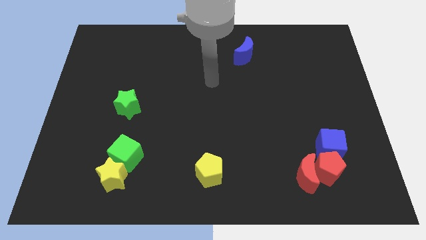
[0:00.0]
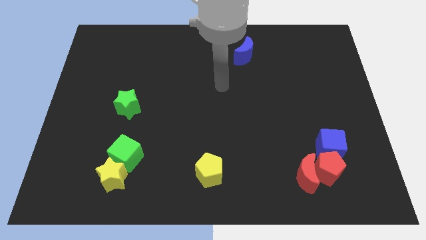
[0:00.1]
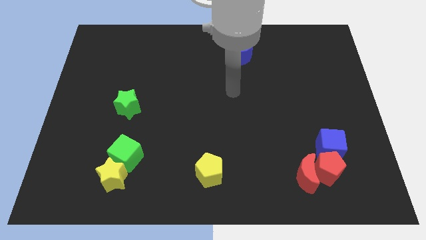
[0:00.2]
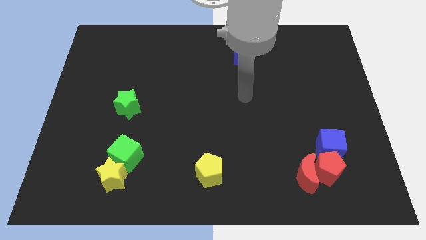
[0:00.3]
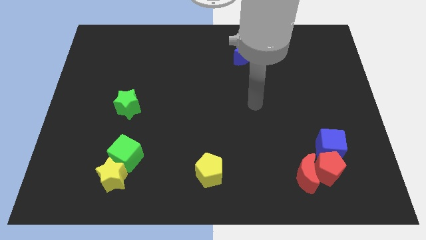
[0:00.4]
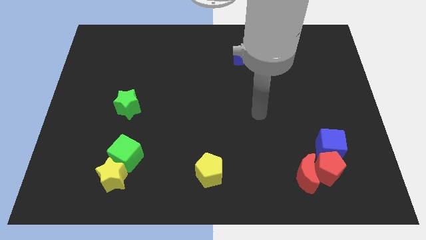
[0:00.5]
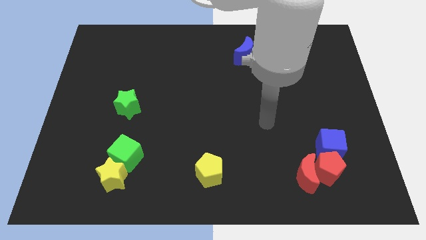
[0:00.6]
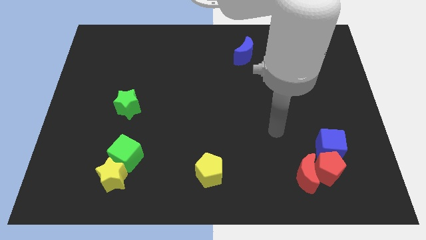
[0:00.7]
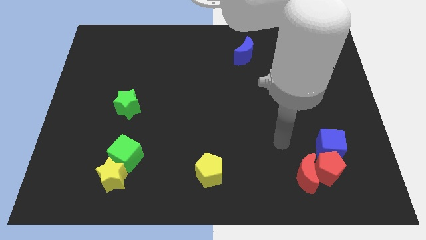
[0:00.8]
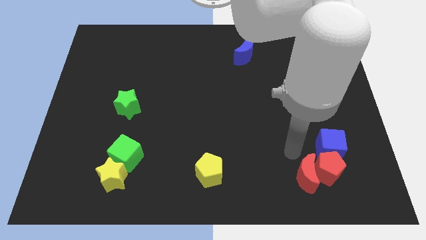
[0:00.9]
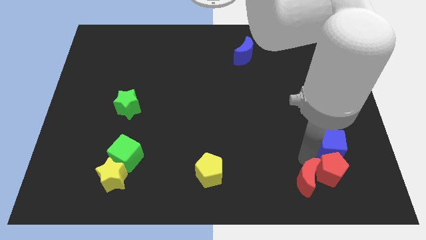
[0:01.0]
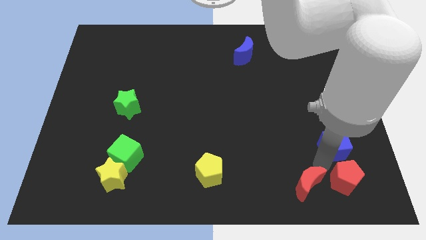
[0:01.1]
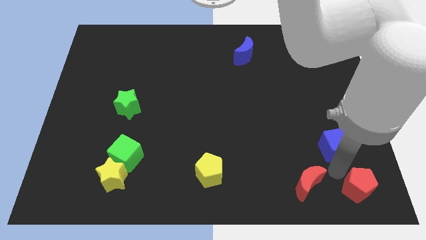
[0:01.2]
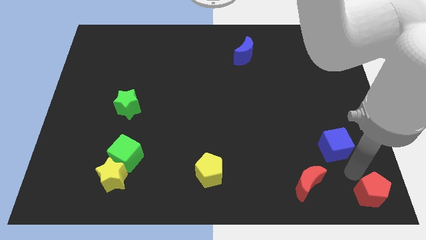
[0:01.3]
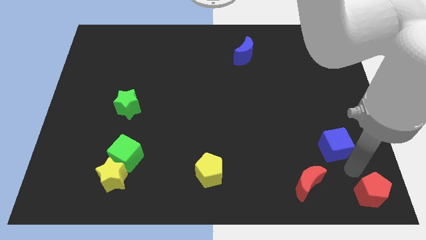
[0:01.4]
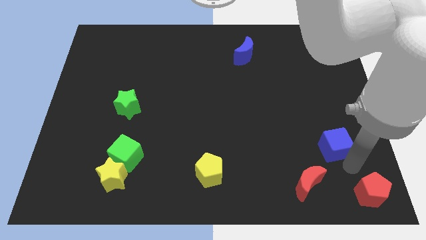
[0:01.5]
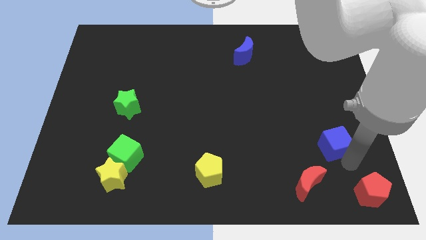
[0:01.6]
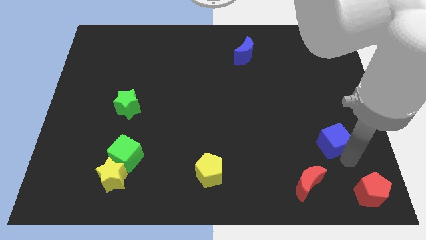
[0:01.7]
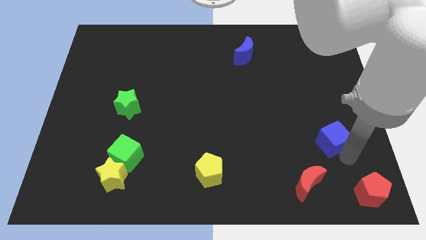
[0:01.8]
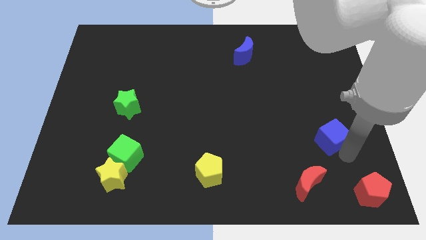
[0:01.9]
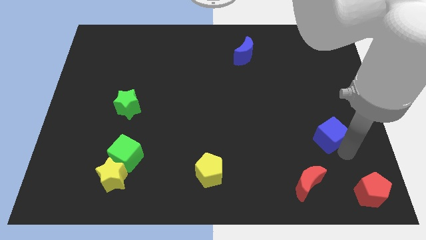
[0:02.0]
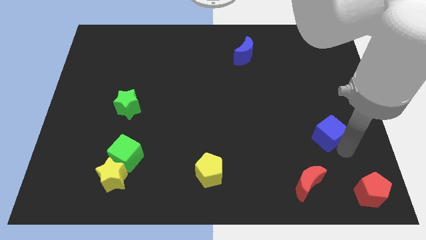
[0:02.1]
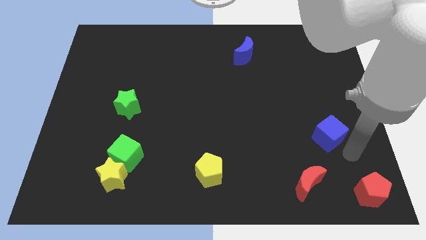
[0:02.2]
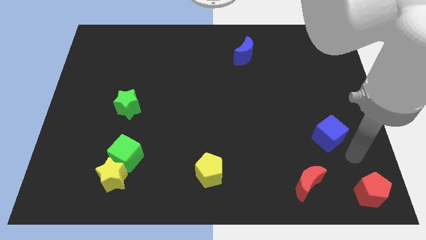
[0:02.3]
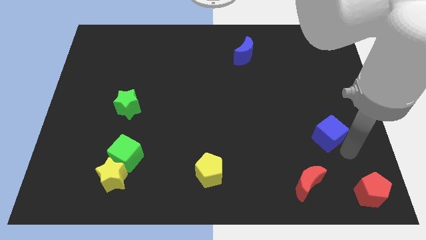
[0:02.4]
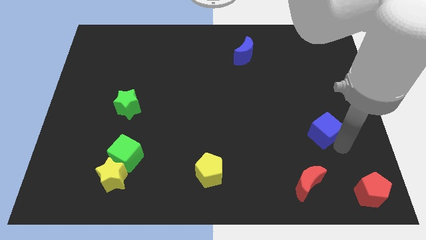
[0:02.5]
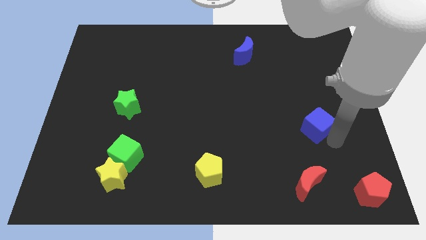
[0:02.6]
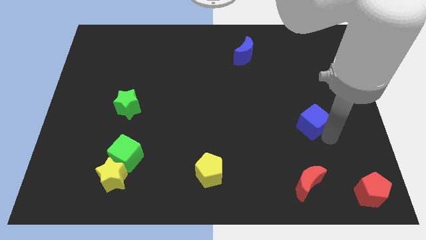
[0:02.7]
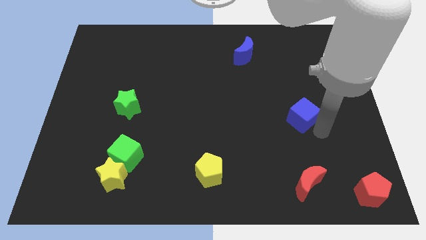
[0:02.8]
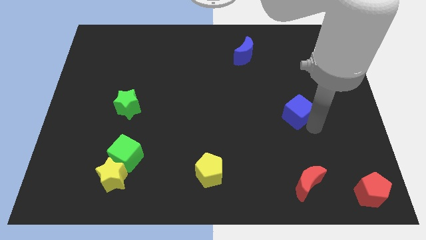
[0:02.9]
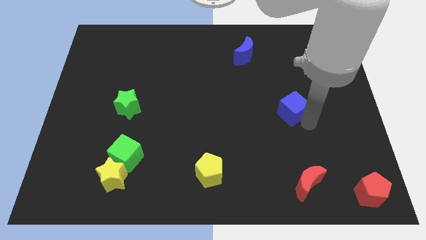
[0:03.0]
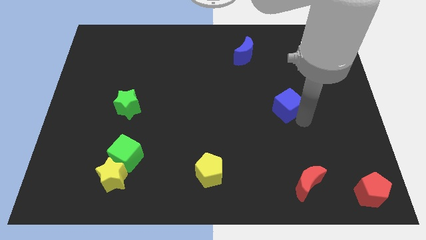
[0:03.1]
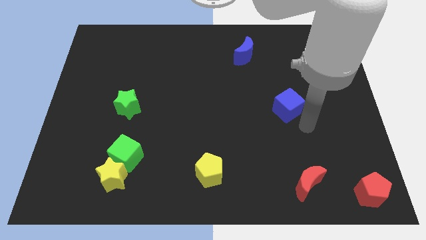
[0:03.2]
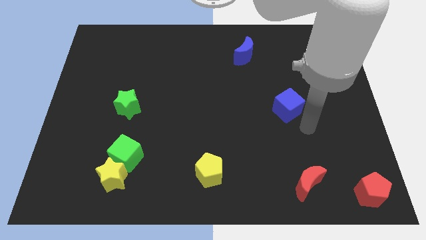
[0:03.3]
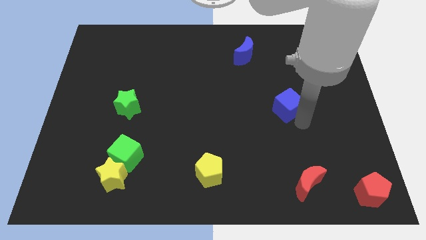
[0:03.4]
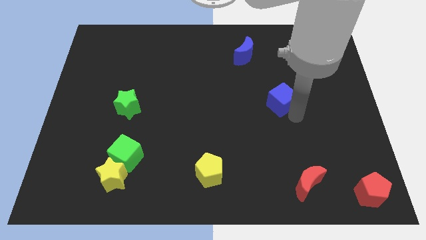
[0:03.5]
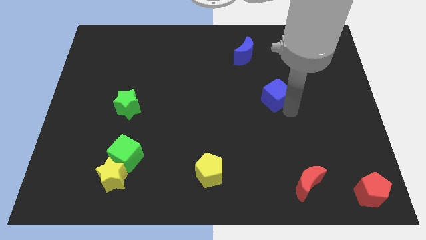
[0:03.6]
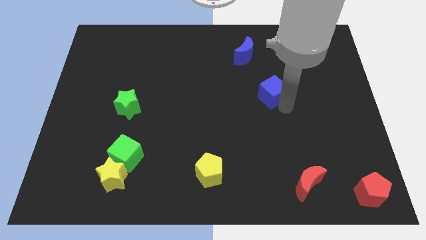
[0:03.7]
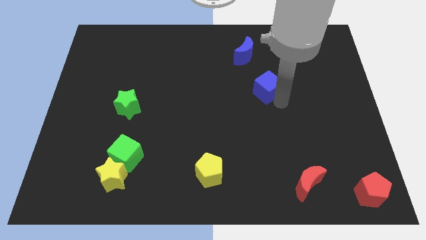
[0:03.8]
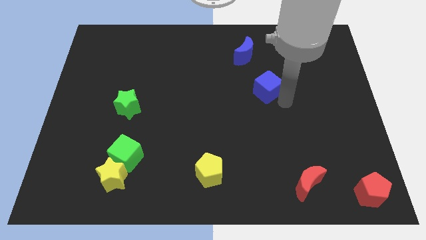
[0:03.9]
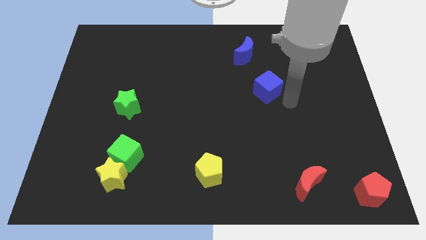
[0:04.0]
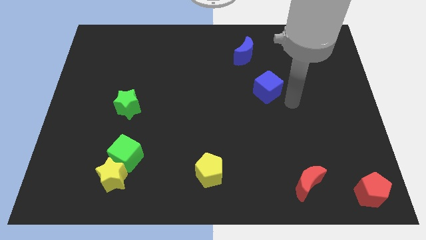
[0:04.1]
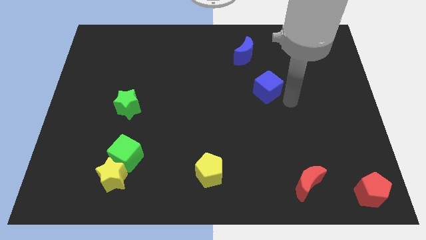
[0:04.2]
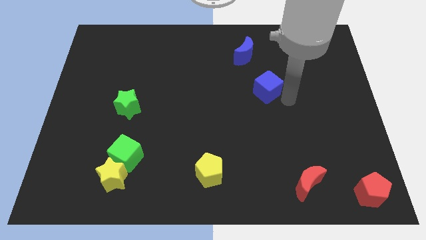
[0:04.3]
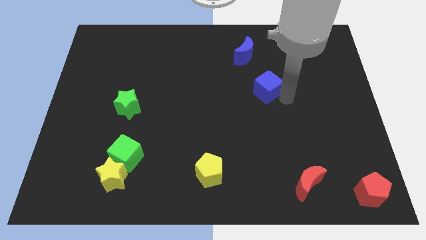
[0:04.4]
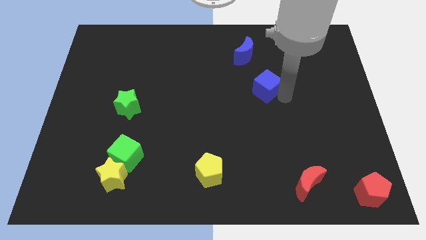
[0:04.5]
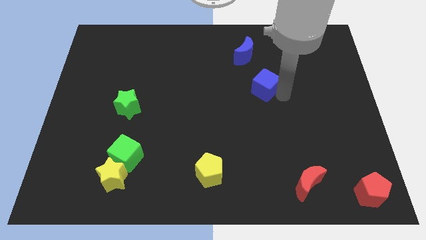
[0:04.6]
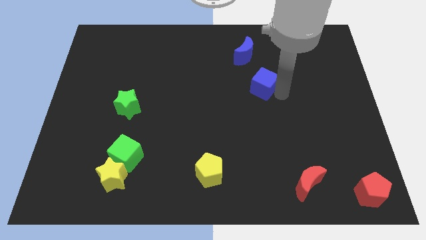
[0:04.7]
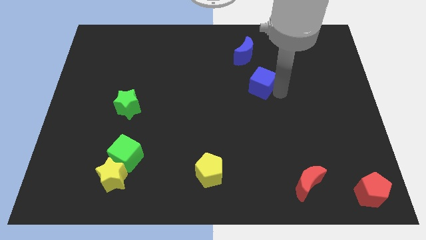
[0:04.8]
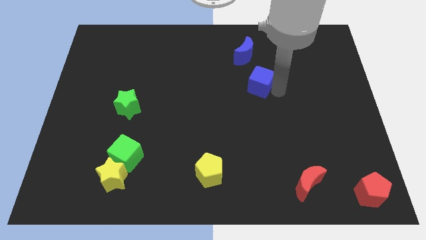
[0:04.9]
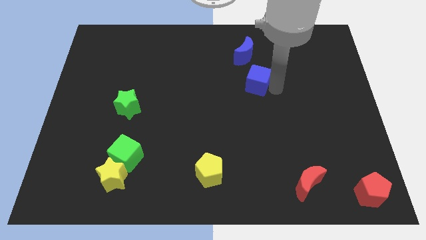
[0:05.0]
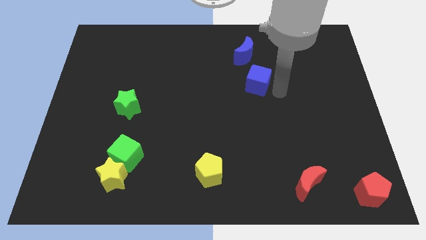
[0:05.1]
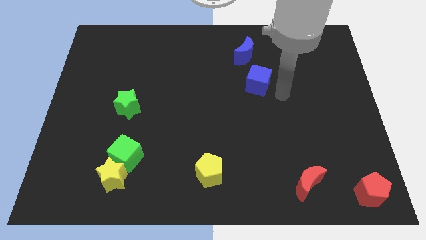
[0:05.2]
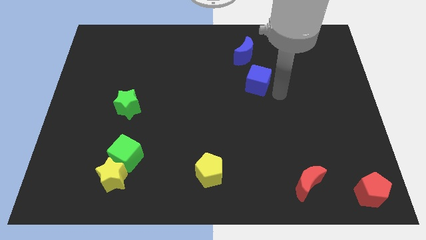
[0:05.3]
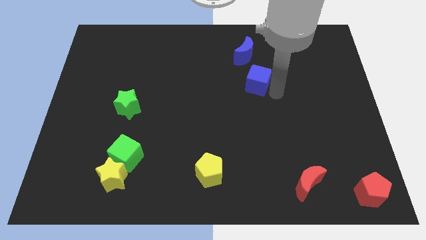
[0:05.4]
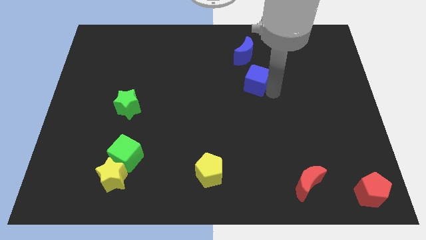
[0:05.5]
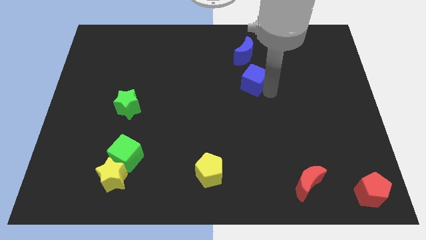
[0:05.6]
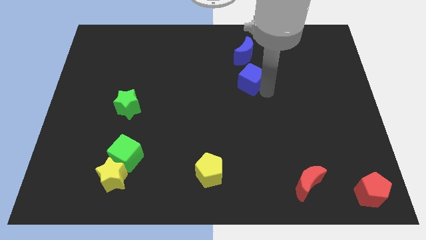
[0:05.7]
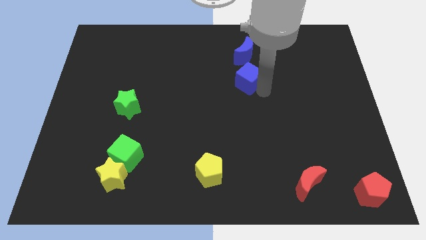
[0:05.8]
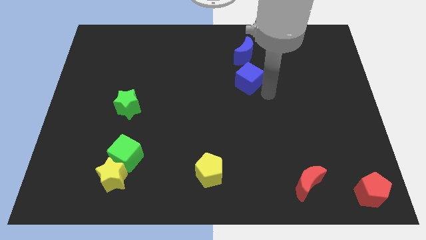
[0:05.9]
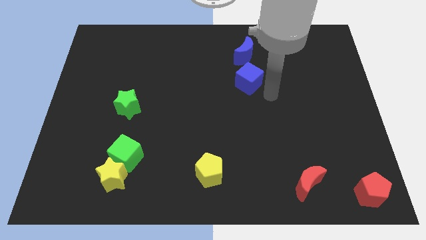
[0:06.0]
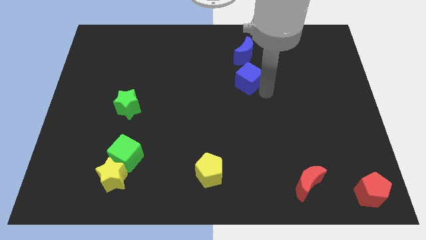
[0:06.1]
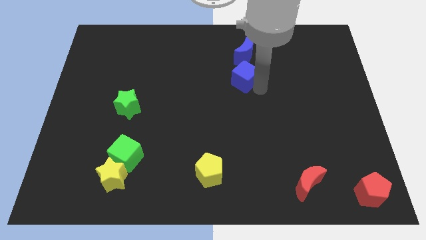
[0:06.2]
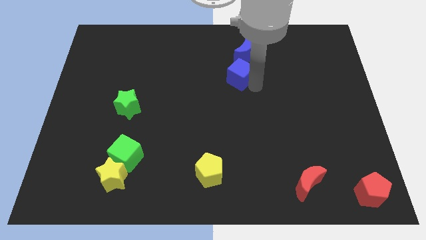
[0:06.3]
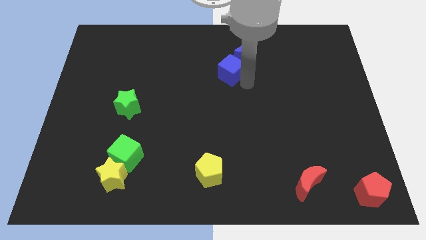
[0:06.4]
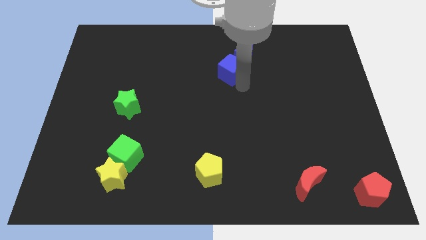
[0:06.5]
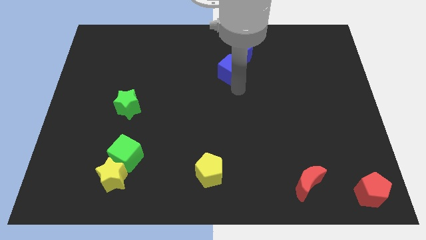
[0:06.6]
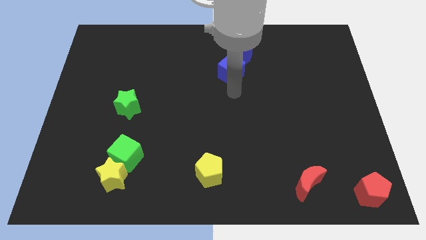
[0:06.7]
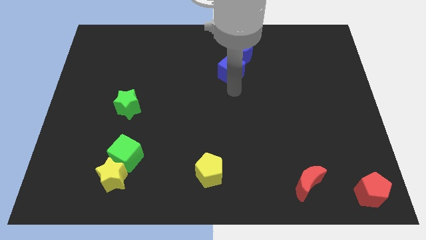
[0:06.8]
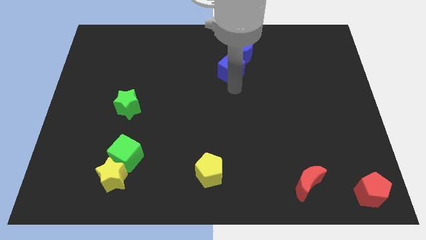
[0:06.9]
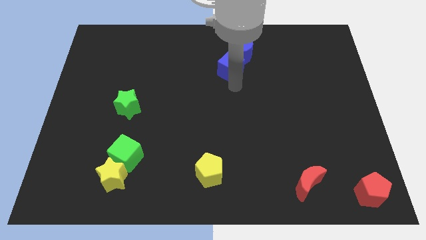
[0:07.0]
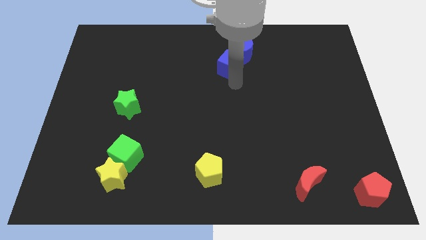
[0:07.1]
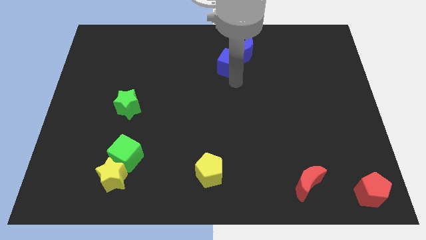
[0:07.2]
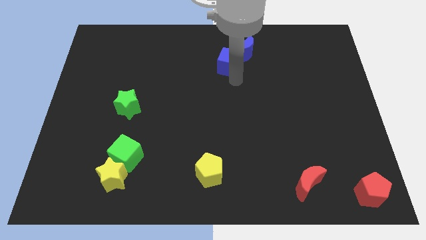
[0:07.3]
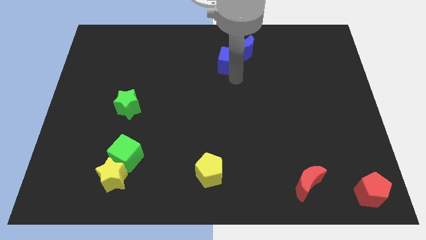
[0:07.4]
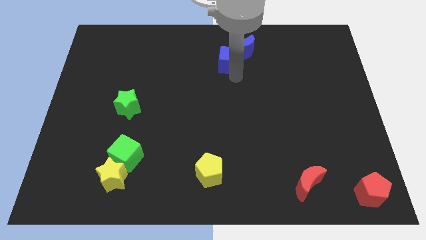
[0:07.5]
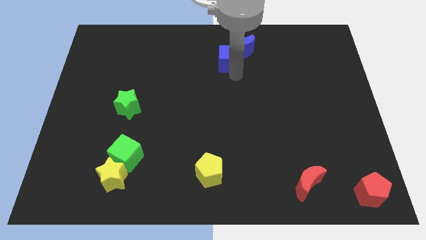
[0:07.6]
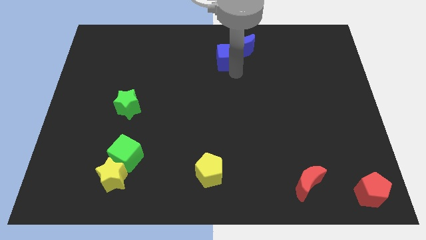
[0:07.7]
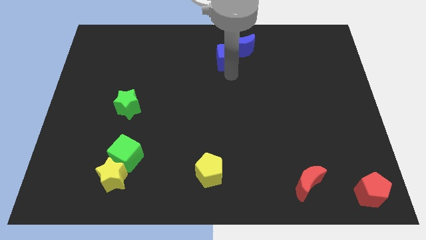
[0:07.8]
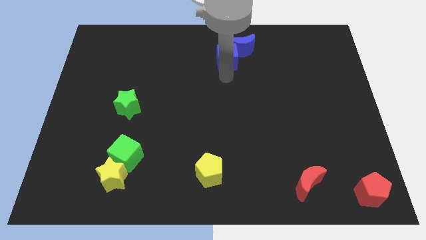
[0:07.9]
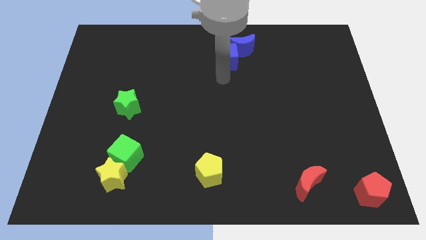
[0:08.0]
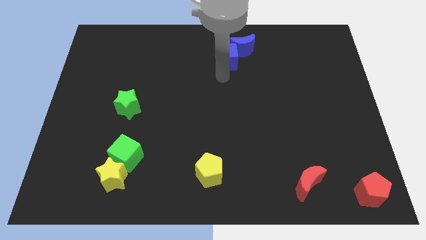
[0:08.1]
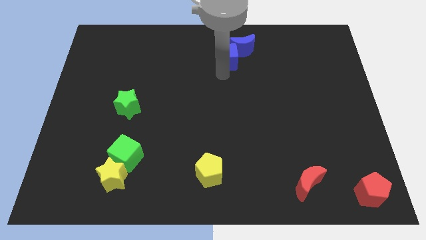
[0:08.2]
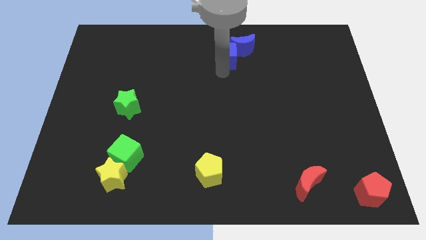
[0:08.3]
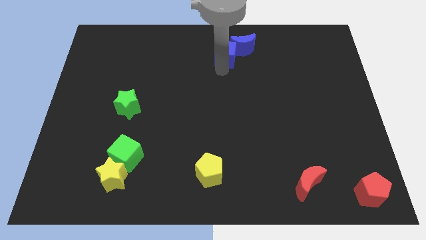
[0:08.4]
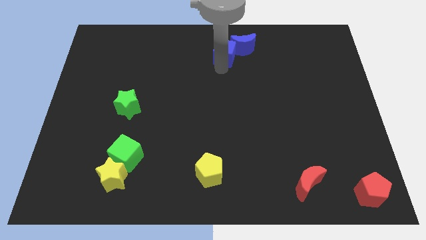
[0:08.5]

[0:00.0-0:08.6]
push the blue cube to the top side
